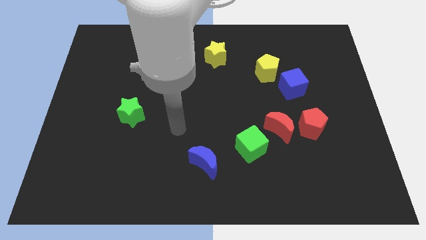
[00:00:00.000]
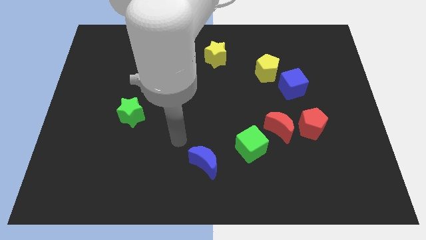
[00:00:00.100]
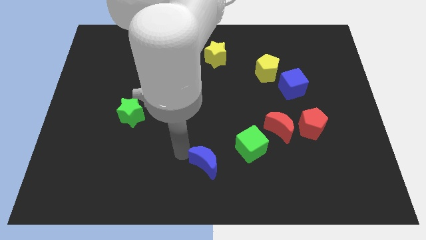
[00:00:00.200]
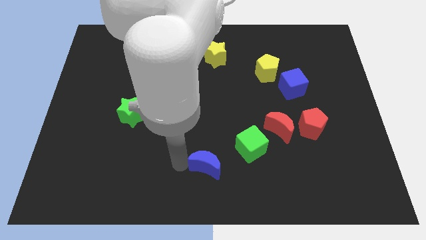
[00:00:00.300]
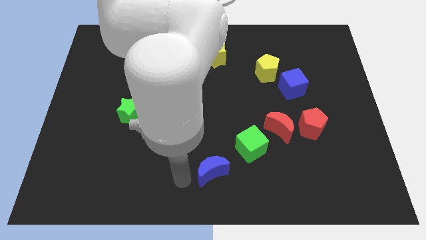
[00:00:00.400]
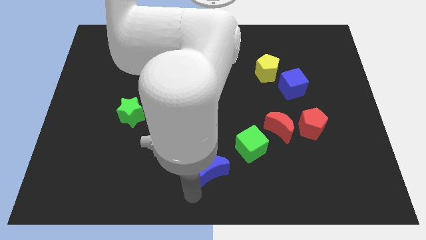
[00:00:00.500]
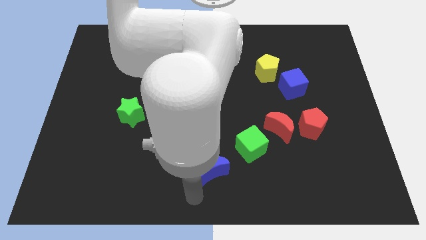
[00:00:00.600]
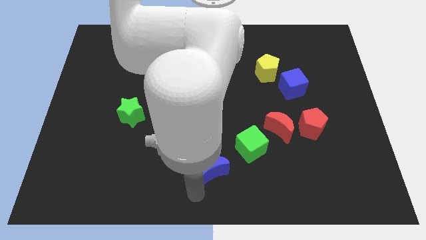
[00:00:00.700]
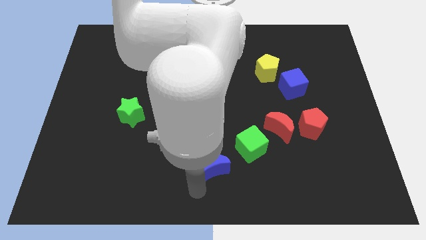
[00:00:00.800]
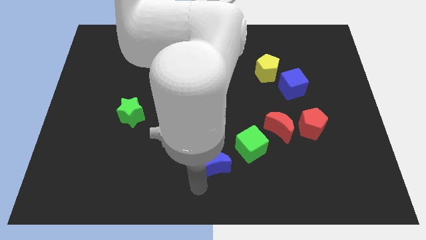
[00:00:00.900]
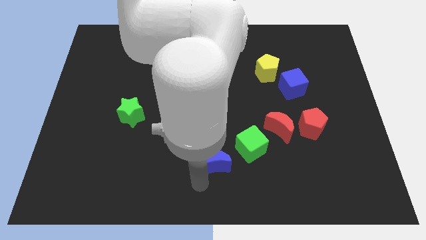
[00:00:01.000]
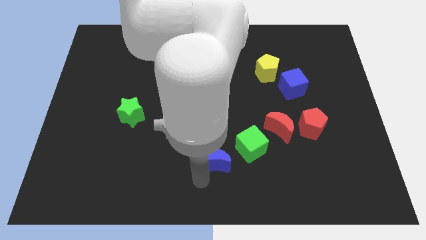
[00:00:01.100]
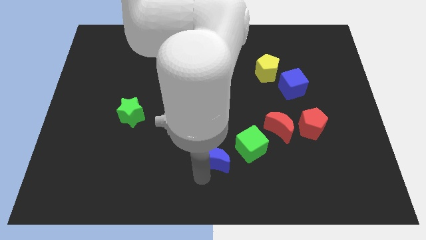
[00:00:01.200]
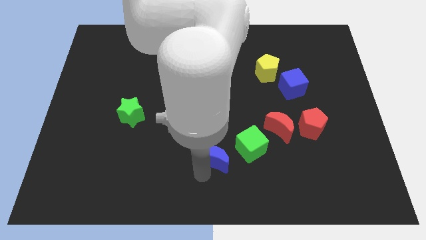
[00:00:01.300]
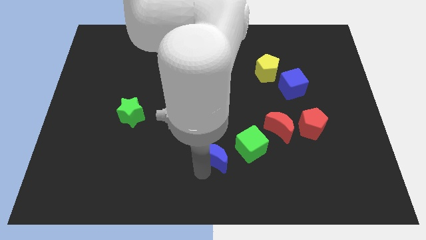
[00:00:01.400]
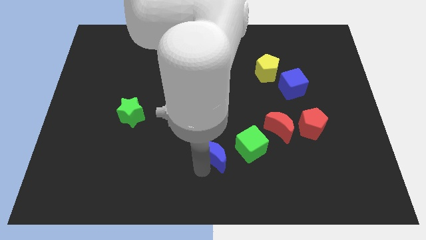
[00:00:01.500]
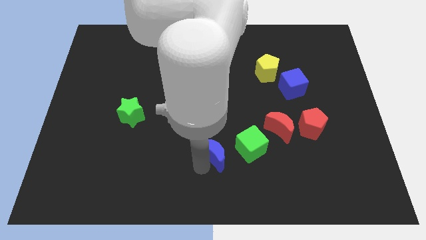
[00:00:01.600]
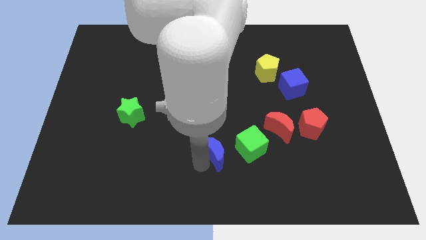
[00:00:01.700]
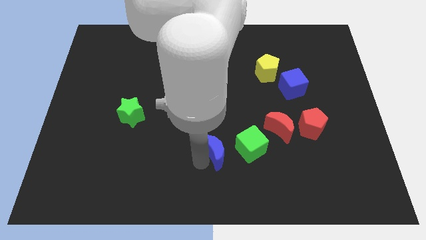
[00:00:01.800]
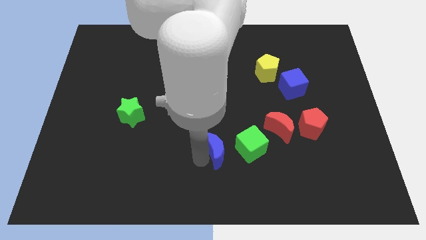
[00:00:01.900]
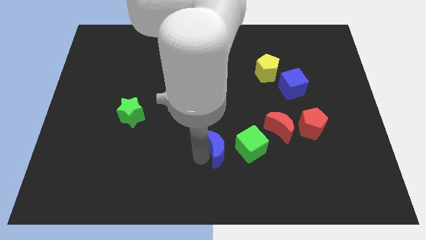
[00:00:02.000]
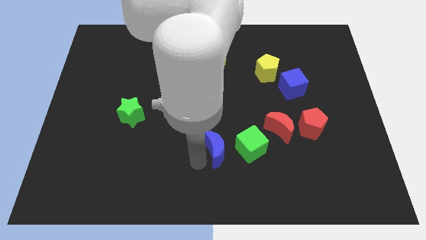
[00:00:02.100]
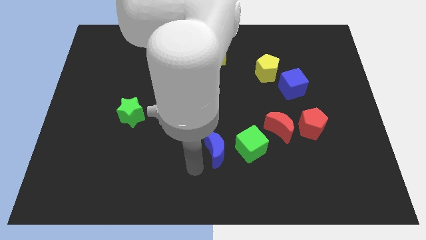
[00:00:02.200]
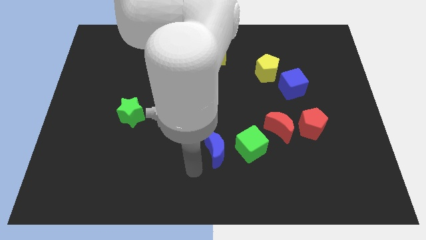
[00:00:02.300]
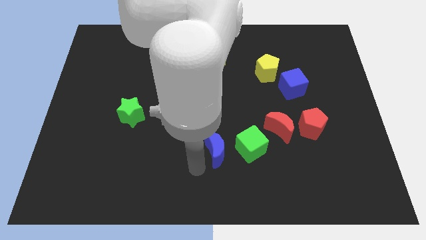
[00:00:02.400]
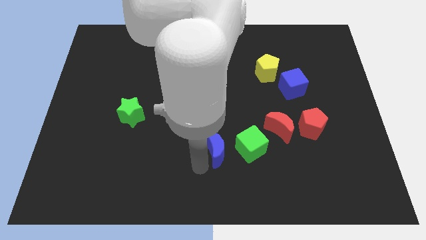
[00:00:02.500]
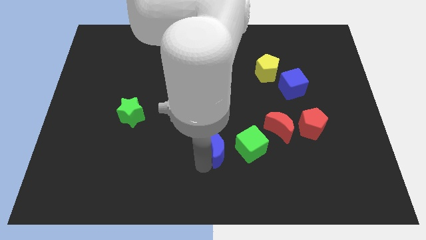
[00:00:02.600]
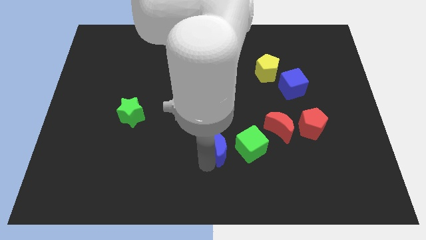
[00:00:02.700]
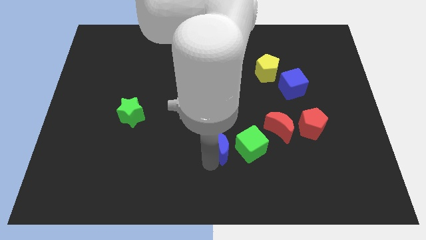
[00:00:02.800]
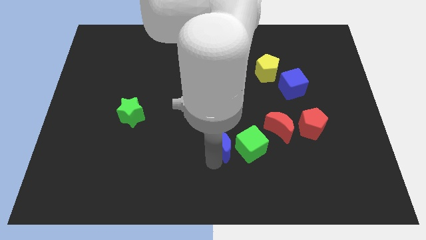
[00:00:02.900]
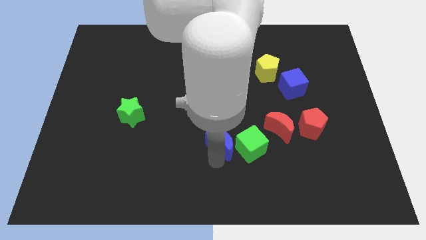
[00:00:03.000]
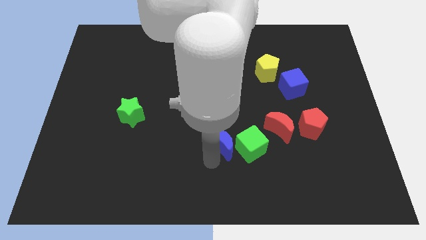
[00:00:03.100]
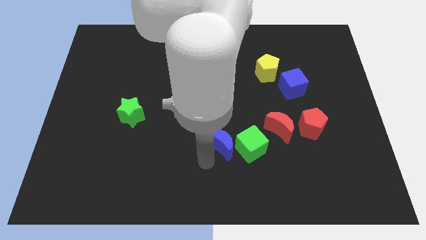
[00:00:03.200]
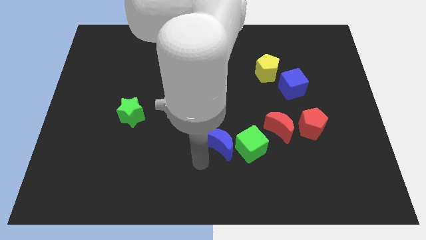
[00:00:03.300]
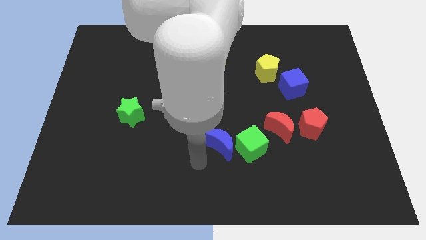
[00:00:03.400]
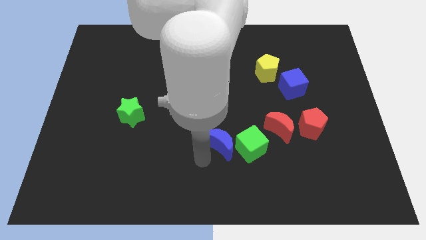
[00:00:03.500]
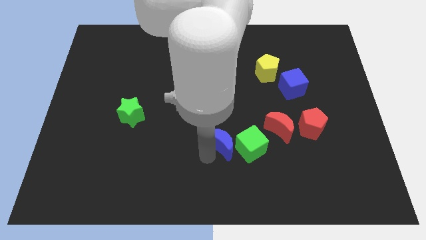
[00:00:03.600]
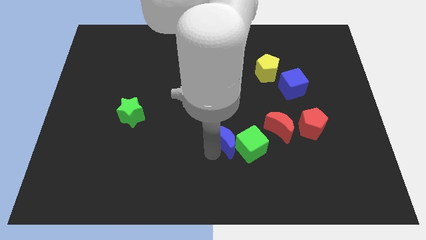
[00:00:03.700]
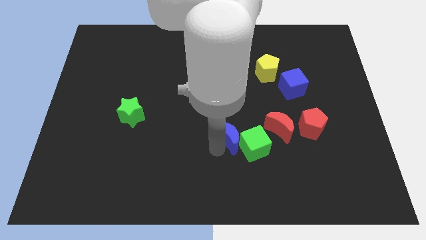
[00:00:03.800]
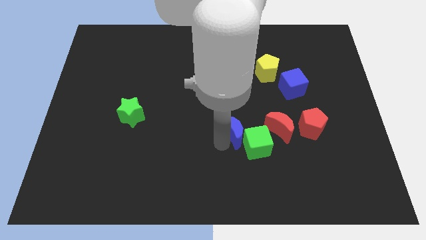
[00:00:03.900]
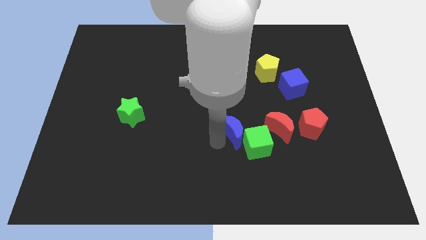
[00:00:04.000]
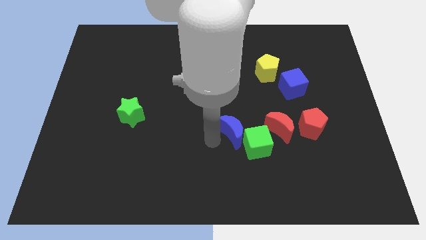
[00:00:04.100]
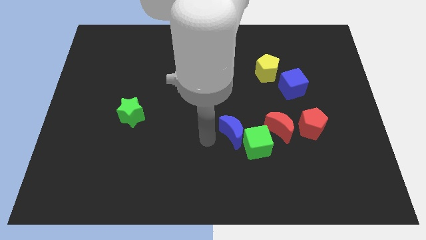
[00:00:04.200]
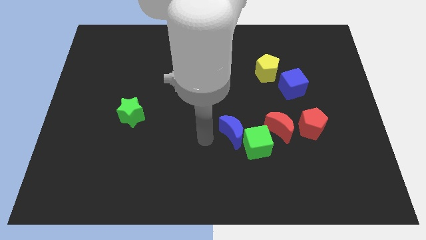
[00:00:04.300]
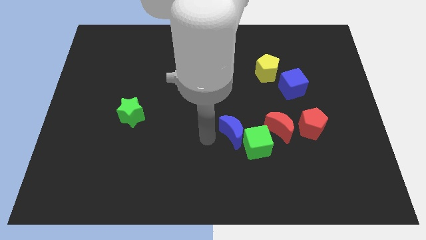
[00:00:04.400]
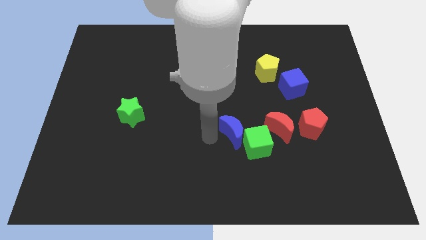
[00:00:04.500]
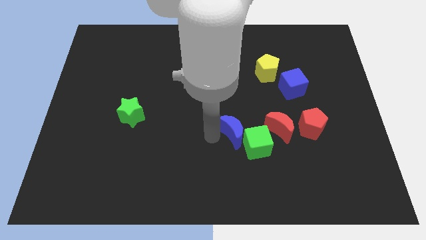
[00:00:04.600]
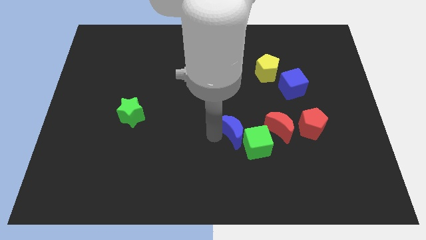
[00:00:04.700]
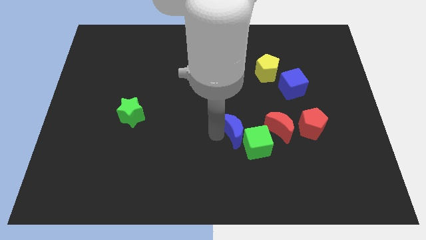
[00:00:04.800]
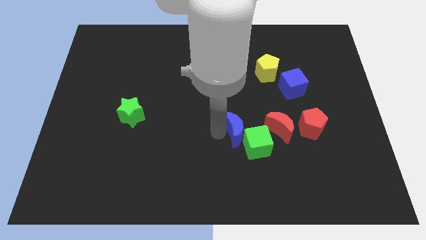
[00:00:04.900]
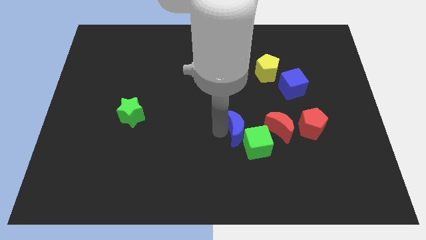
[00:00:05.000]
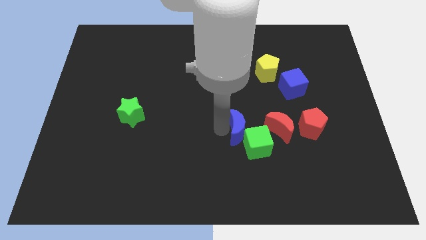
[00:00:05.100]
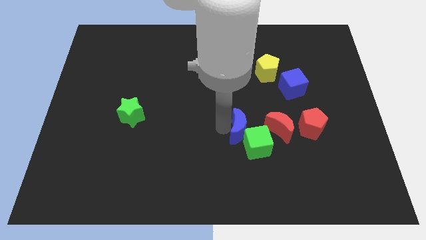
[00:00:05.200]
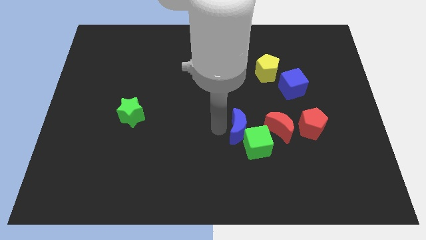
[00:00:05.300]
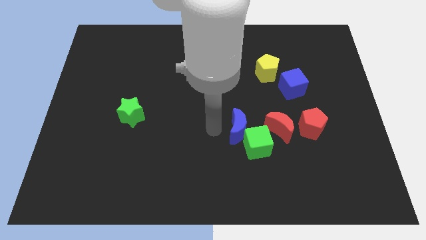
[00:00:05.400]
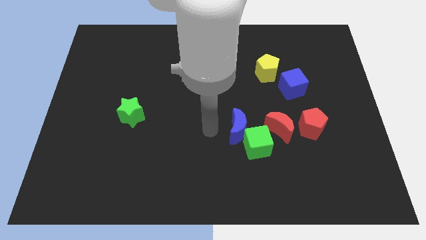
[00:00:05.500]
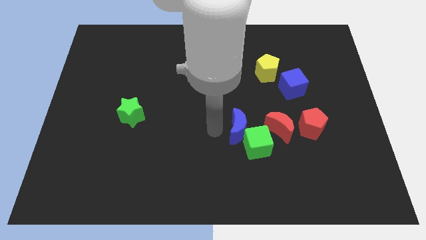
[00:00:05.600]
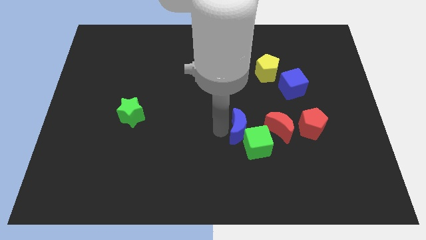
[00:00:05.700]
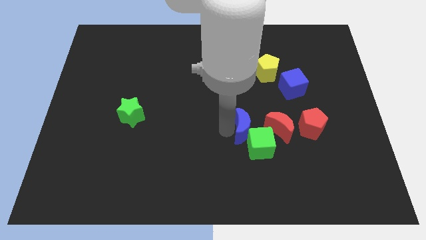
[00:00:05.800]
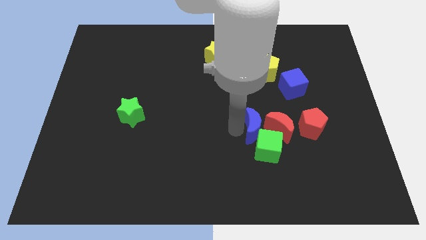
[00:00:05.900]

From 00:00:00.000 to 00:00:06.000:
move the blue moon next to the red moon
